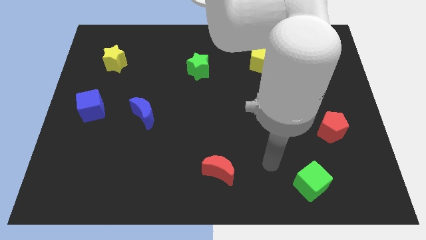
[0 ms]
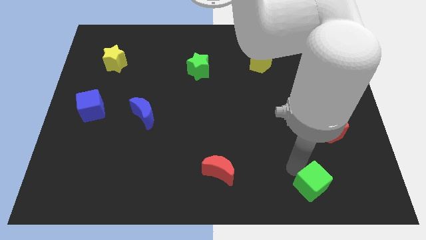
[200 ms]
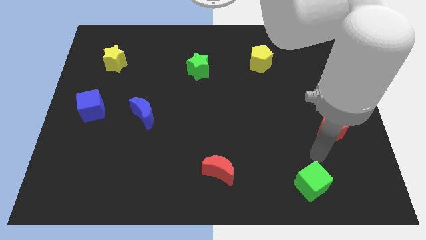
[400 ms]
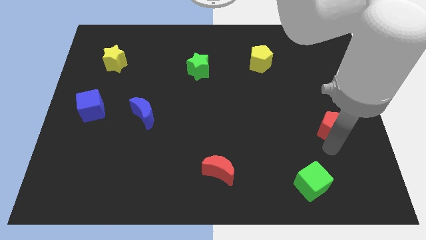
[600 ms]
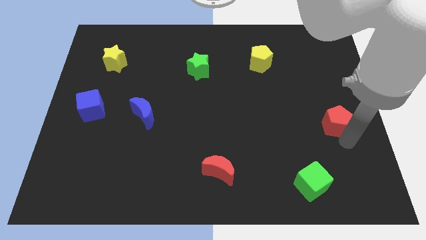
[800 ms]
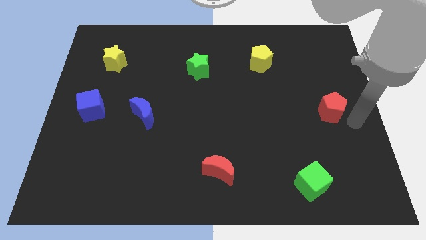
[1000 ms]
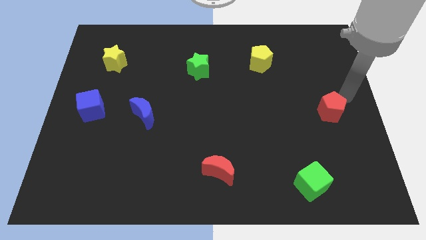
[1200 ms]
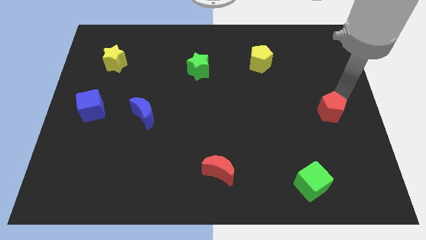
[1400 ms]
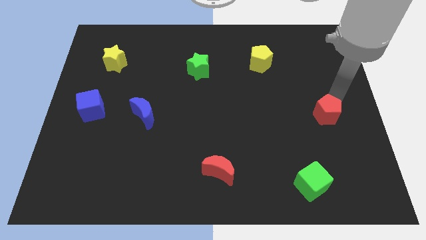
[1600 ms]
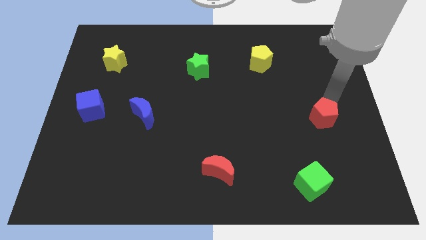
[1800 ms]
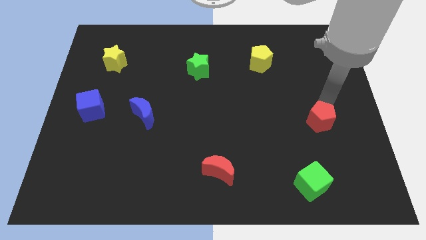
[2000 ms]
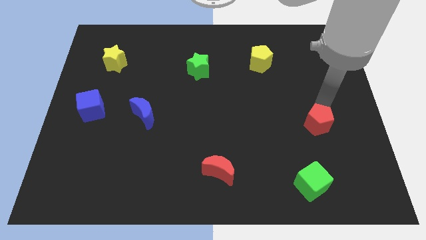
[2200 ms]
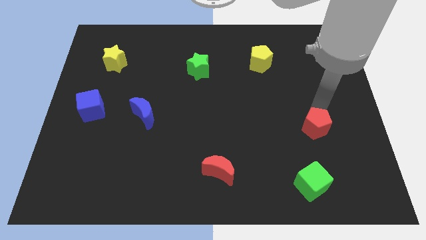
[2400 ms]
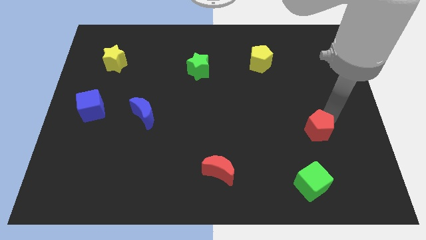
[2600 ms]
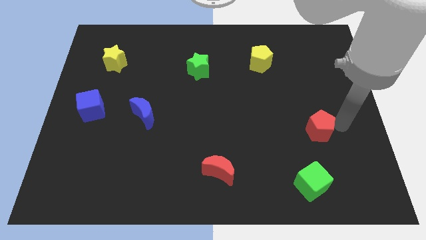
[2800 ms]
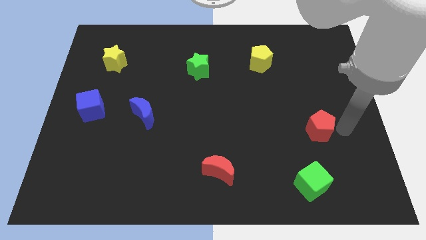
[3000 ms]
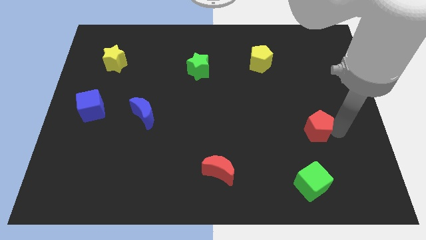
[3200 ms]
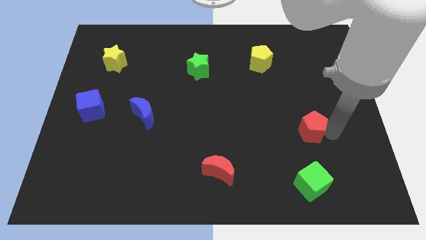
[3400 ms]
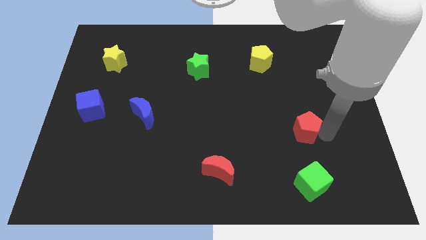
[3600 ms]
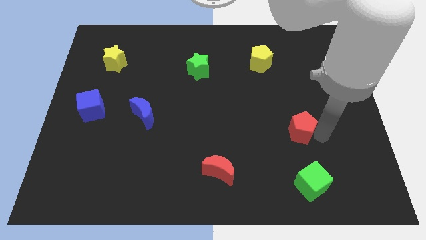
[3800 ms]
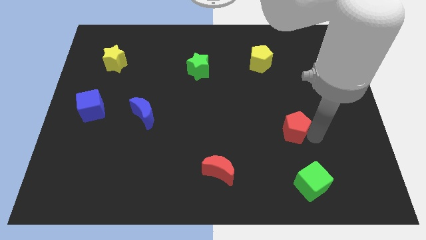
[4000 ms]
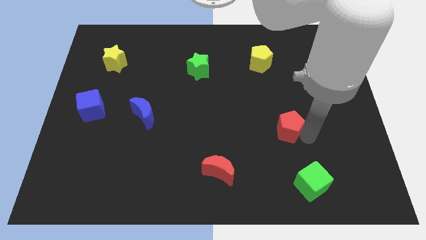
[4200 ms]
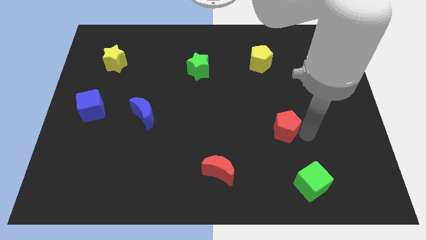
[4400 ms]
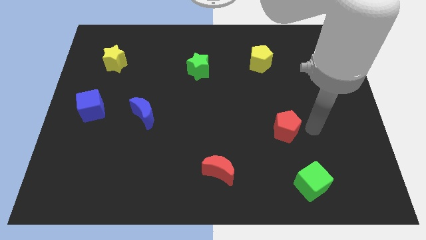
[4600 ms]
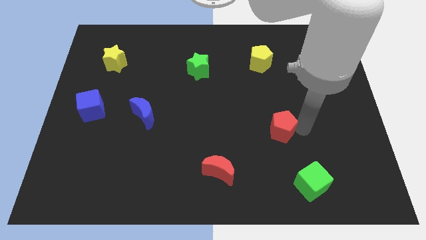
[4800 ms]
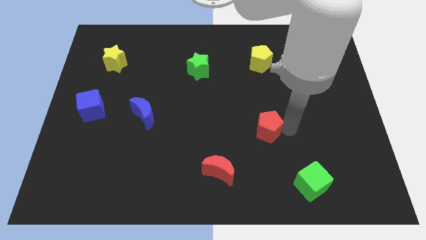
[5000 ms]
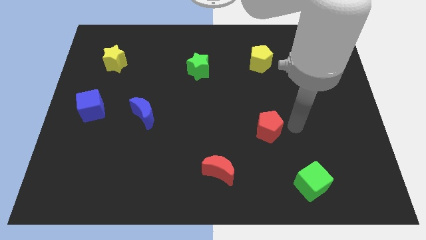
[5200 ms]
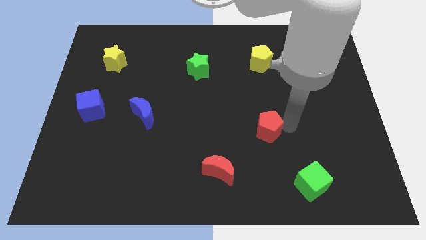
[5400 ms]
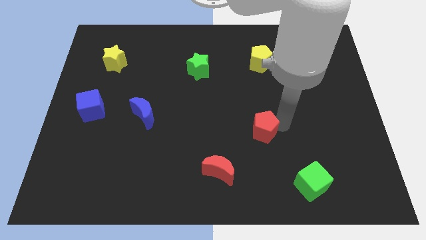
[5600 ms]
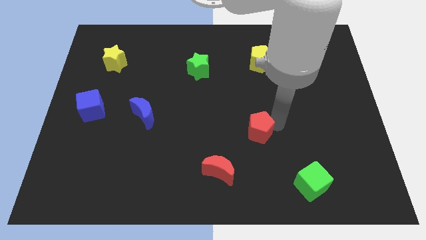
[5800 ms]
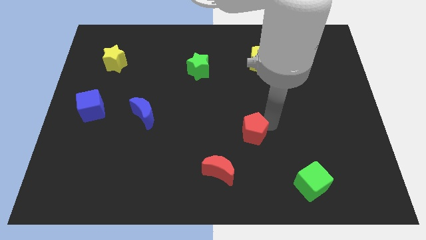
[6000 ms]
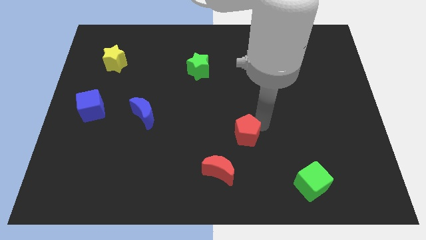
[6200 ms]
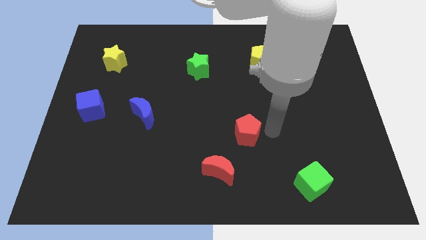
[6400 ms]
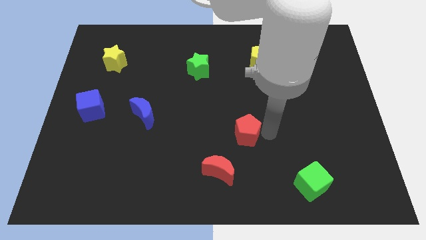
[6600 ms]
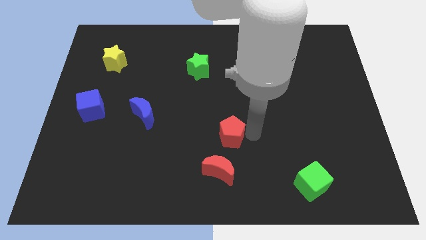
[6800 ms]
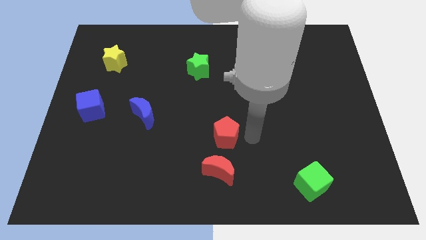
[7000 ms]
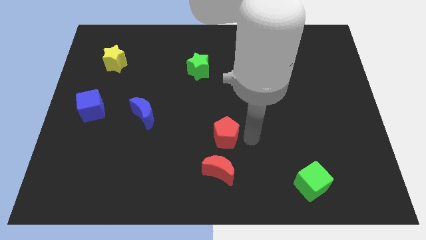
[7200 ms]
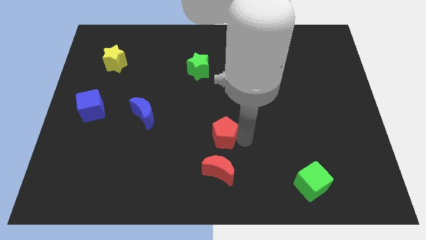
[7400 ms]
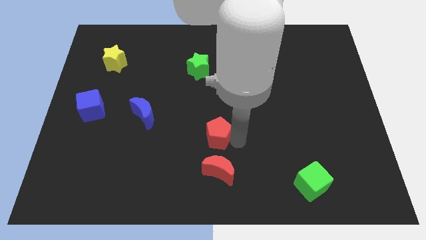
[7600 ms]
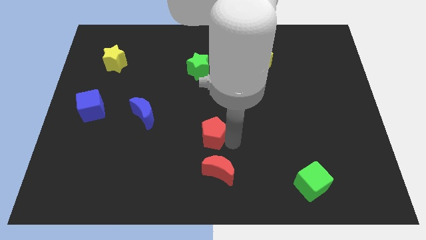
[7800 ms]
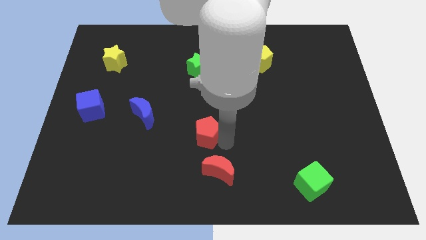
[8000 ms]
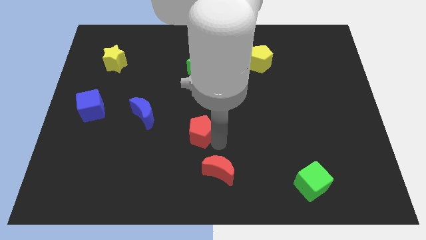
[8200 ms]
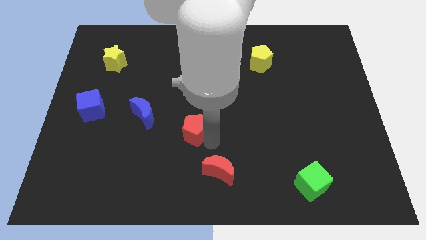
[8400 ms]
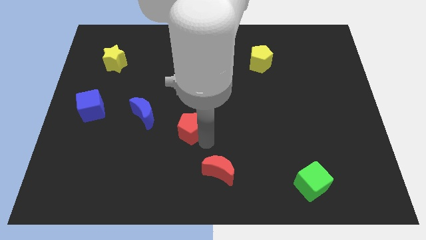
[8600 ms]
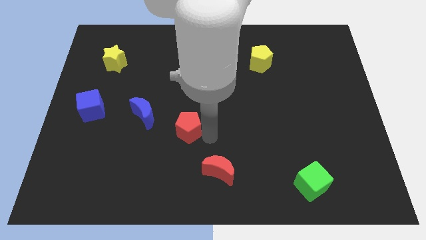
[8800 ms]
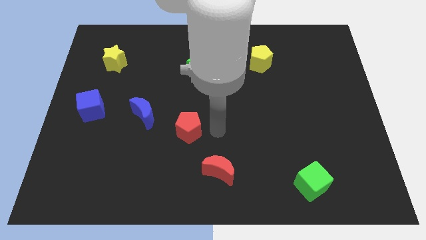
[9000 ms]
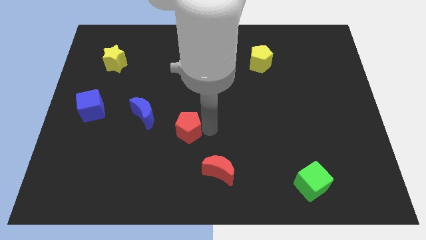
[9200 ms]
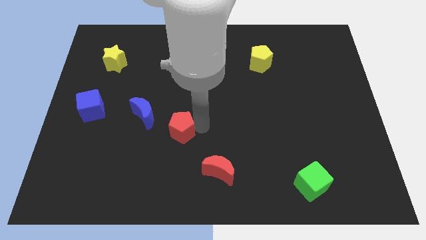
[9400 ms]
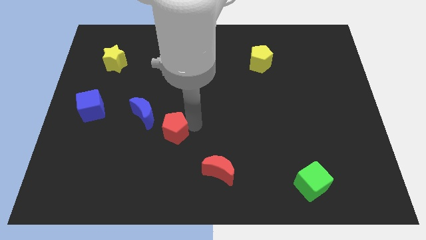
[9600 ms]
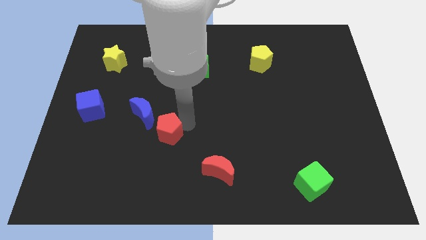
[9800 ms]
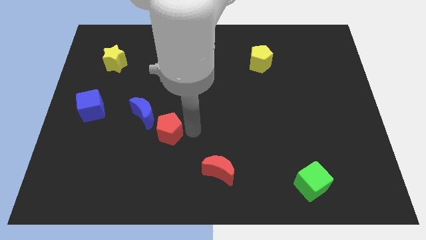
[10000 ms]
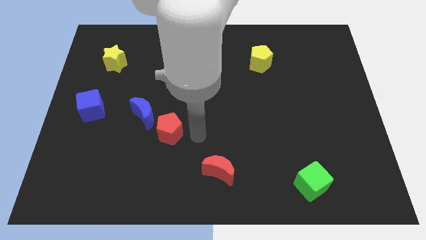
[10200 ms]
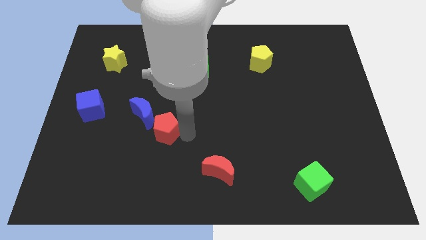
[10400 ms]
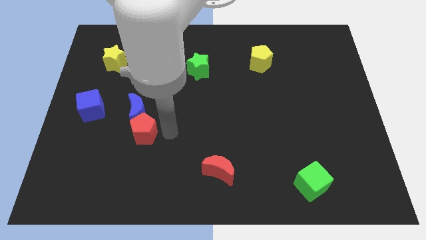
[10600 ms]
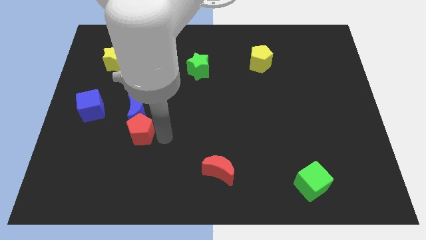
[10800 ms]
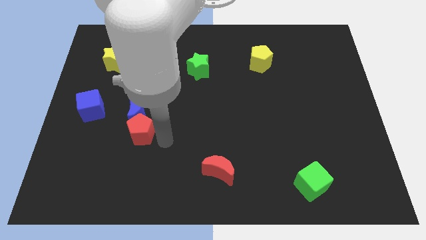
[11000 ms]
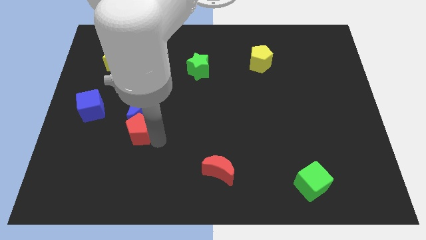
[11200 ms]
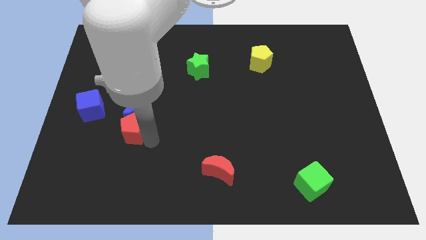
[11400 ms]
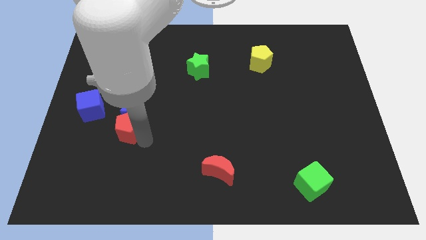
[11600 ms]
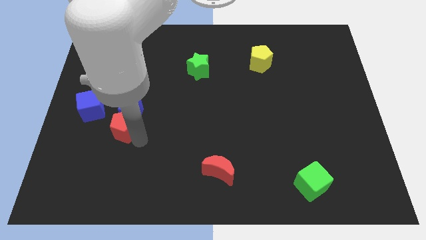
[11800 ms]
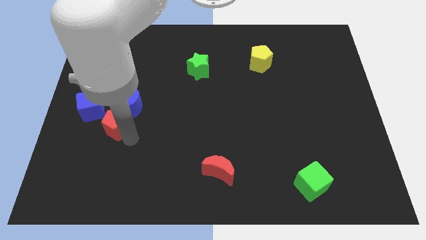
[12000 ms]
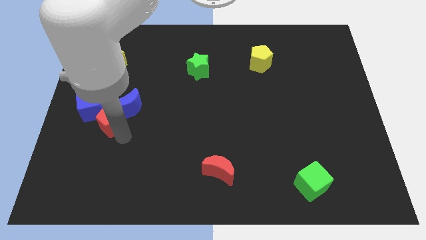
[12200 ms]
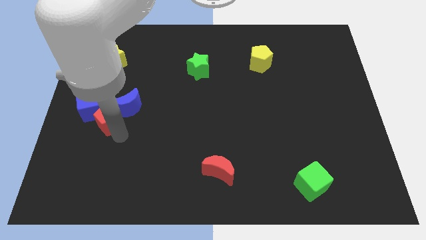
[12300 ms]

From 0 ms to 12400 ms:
slide the red pentagon next to the blue cube

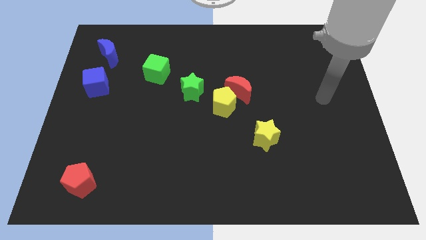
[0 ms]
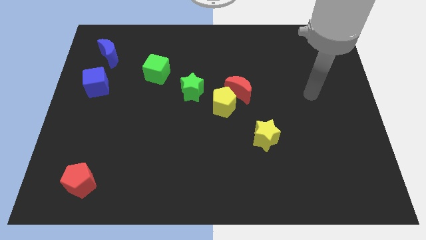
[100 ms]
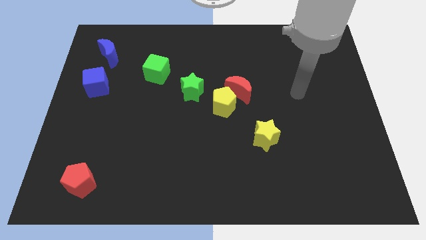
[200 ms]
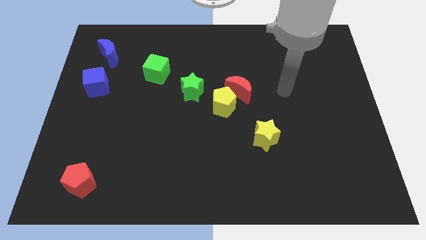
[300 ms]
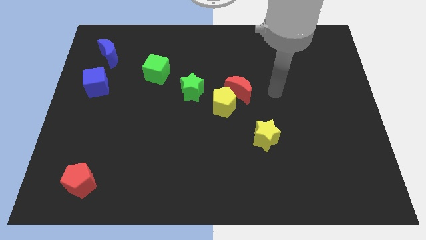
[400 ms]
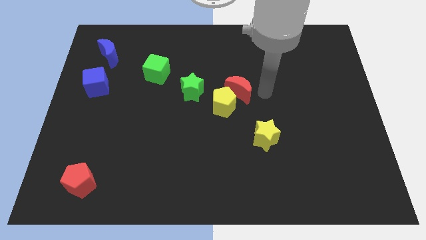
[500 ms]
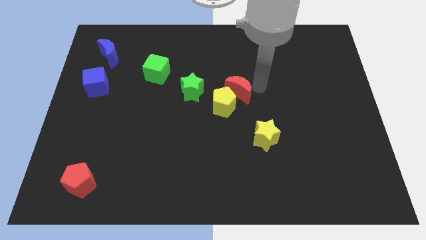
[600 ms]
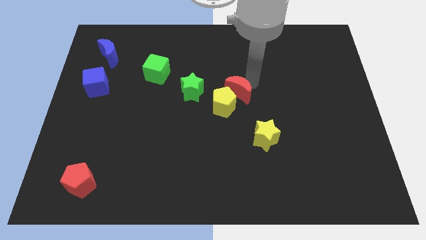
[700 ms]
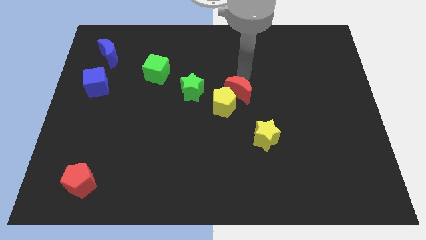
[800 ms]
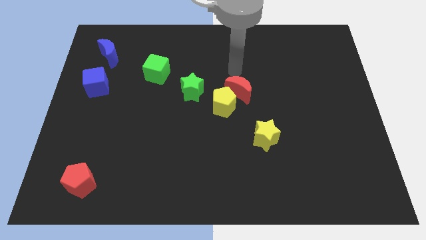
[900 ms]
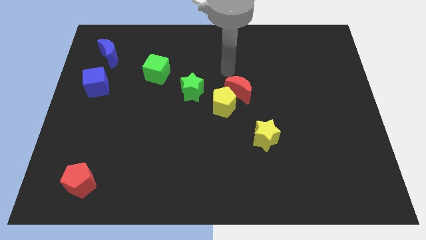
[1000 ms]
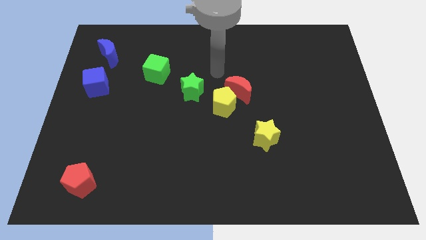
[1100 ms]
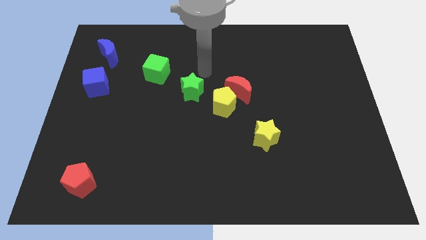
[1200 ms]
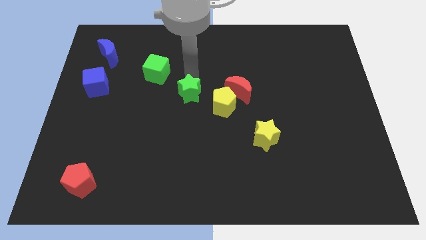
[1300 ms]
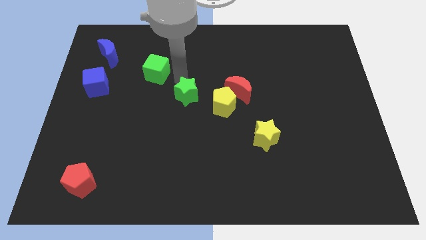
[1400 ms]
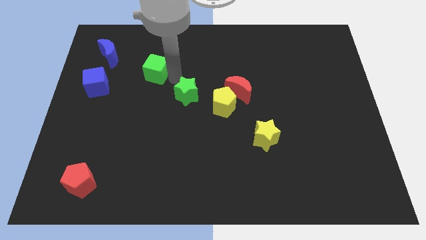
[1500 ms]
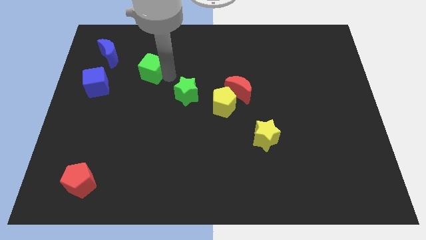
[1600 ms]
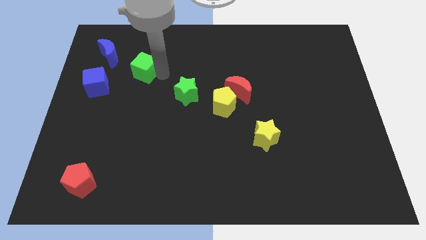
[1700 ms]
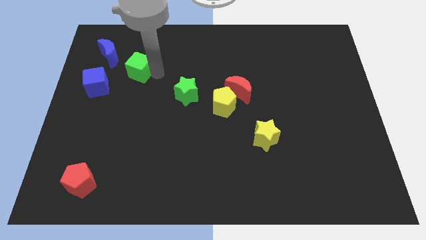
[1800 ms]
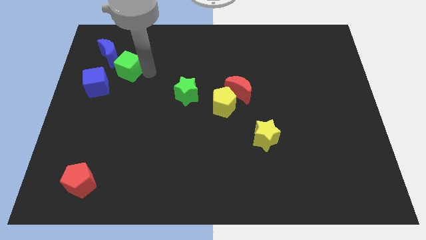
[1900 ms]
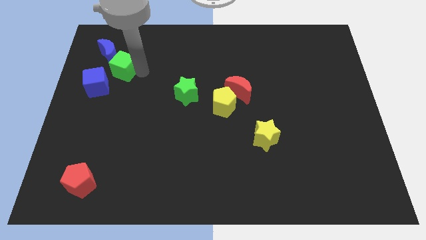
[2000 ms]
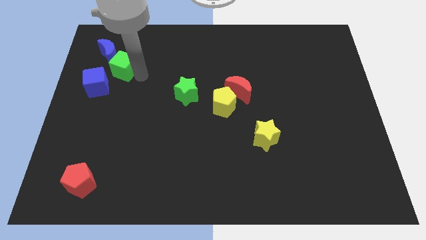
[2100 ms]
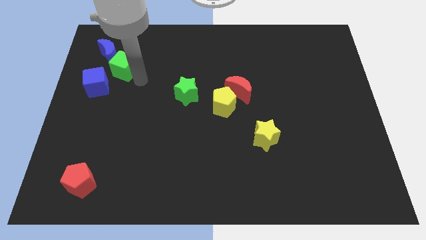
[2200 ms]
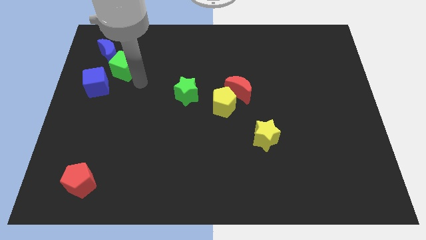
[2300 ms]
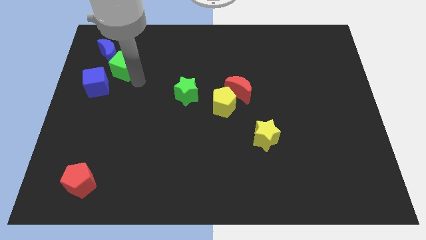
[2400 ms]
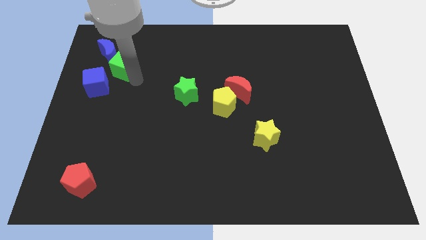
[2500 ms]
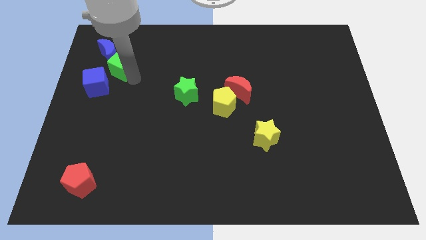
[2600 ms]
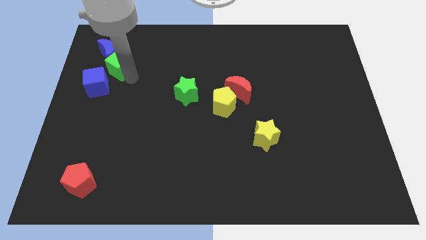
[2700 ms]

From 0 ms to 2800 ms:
put the green cube towards the blue moon
